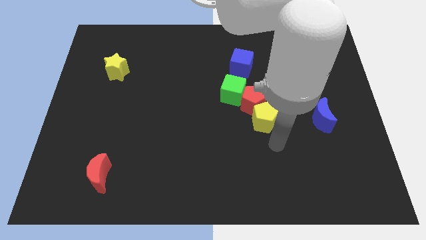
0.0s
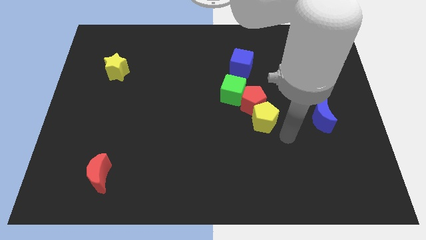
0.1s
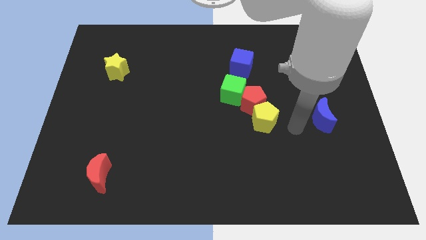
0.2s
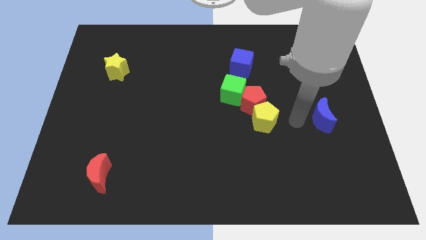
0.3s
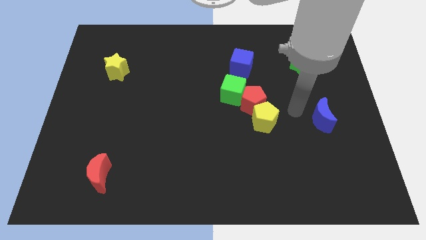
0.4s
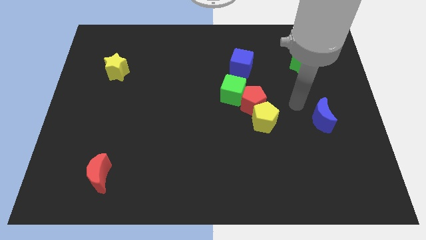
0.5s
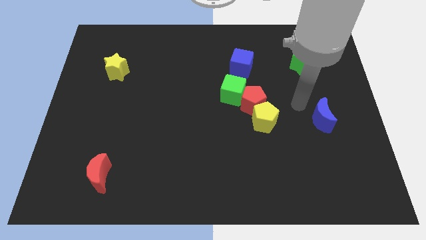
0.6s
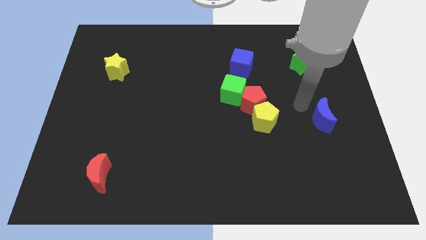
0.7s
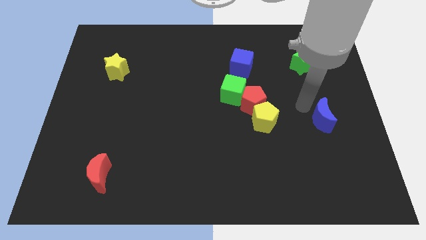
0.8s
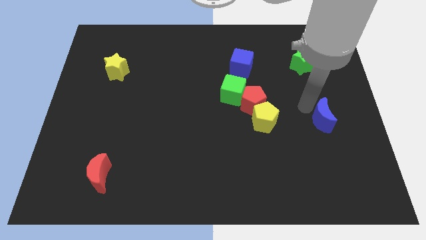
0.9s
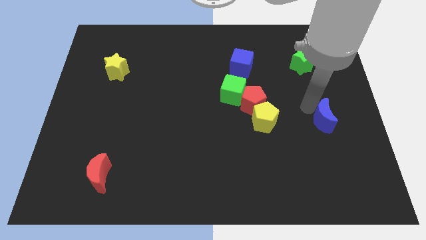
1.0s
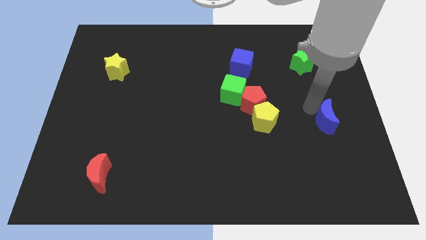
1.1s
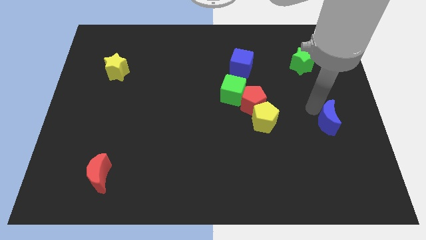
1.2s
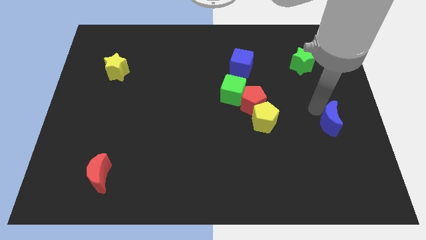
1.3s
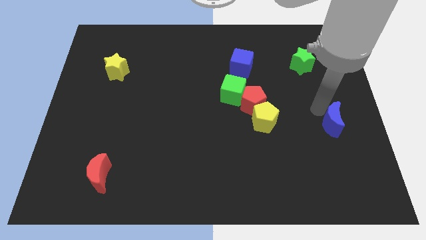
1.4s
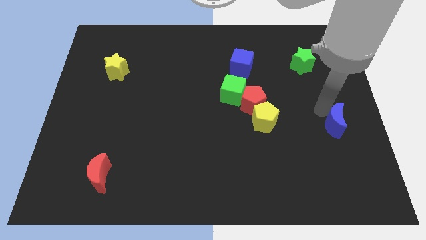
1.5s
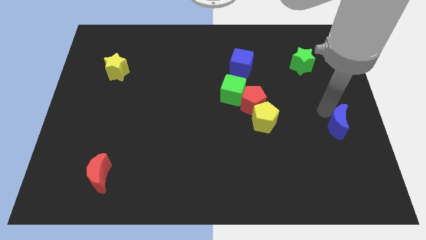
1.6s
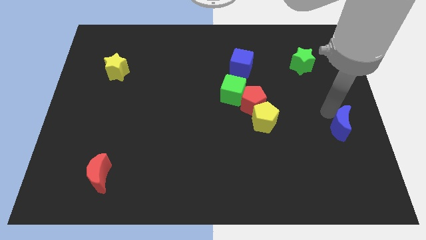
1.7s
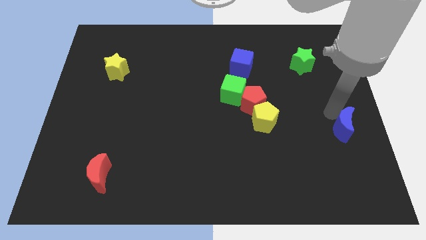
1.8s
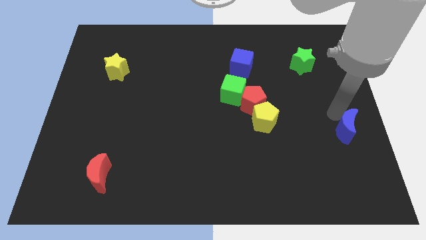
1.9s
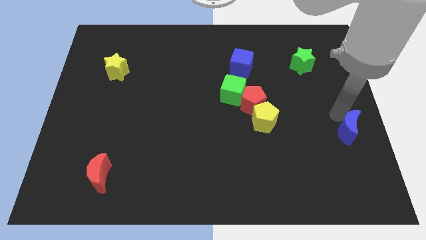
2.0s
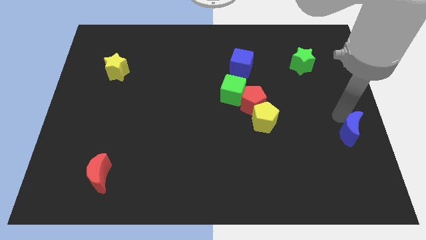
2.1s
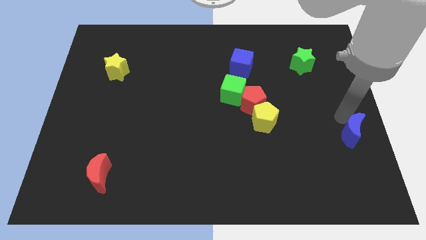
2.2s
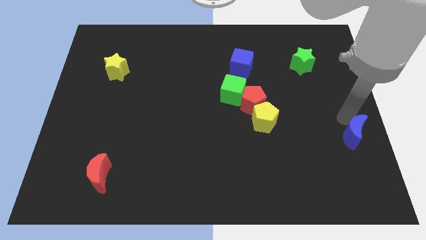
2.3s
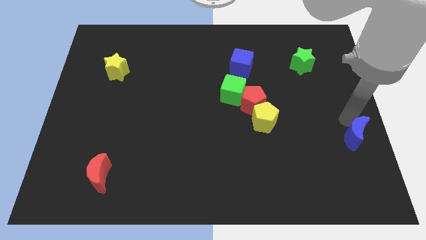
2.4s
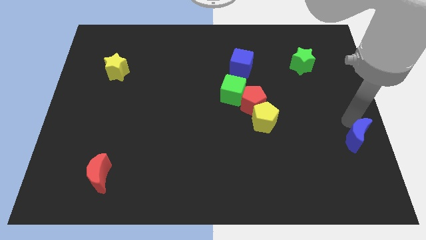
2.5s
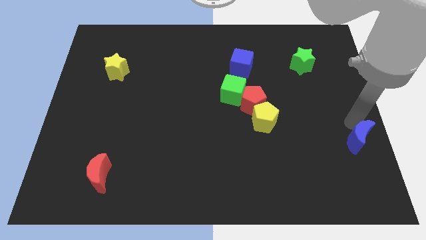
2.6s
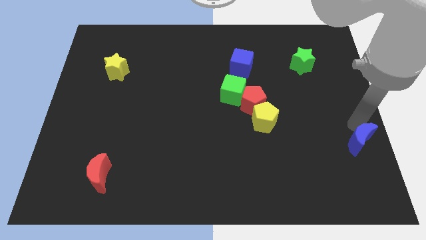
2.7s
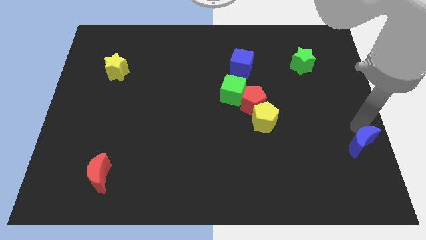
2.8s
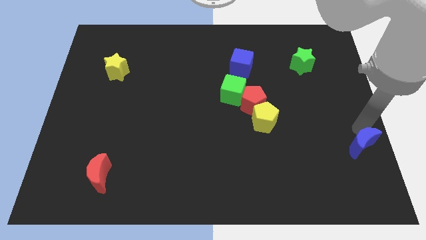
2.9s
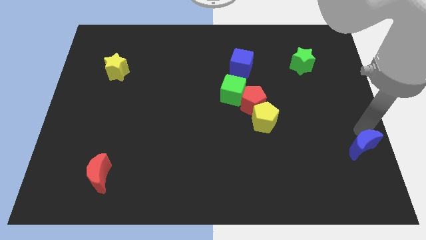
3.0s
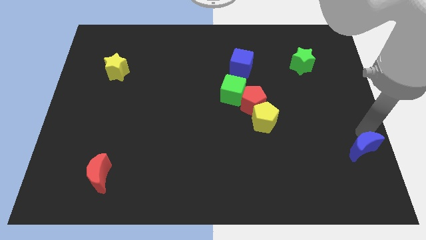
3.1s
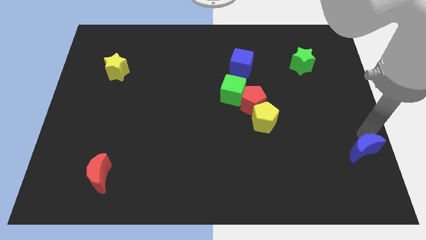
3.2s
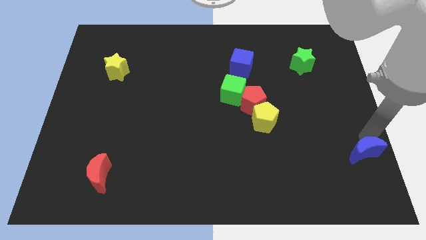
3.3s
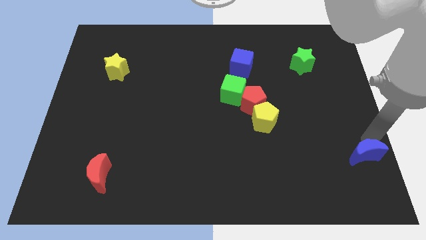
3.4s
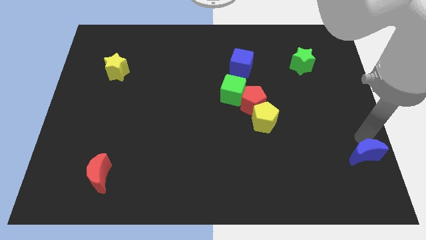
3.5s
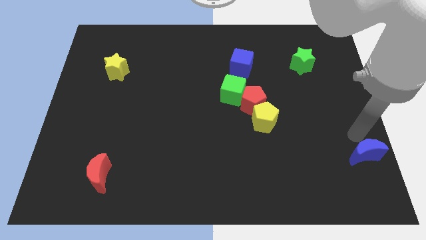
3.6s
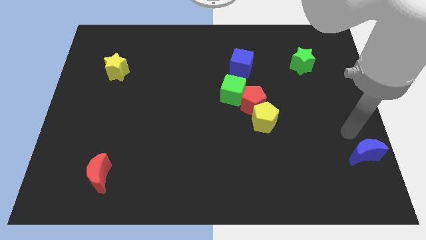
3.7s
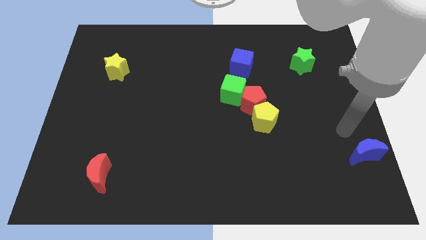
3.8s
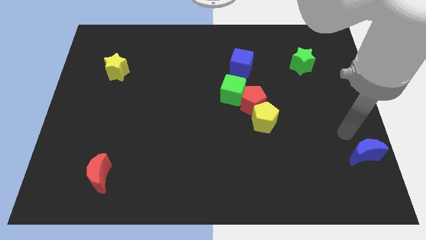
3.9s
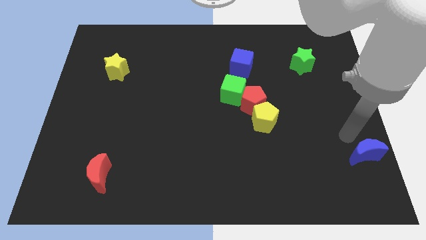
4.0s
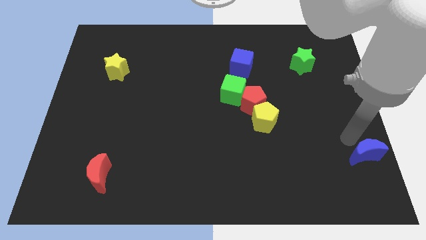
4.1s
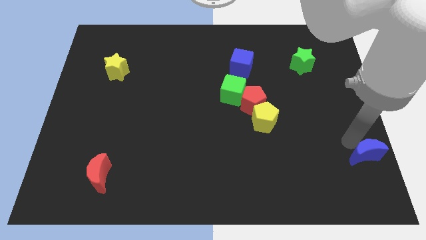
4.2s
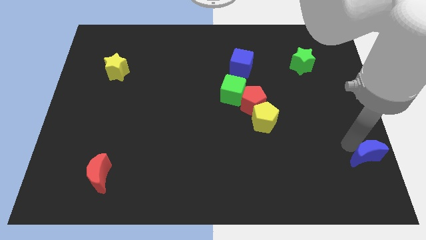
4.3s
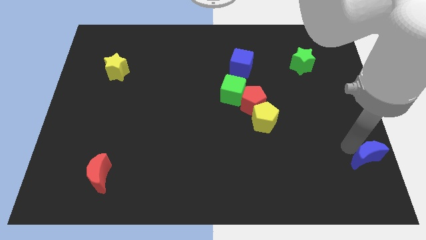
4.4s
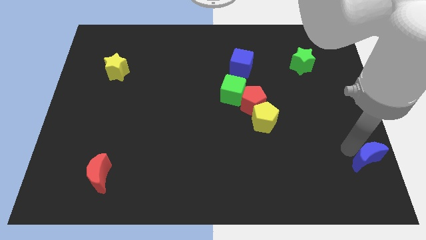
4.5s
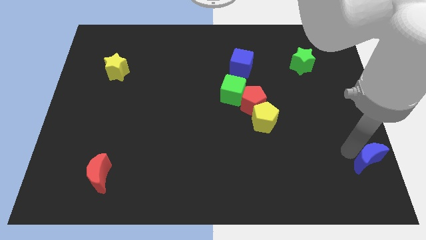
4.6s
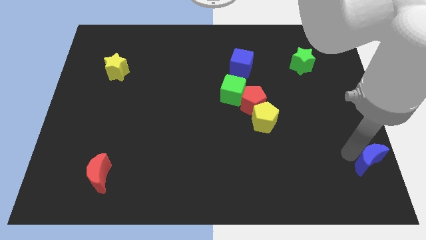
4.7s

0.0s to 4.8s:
put the blue moon to the bottom right of the board

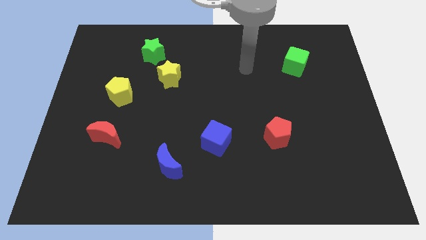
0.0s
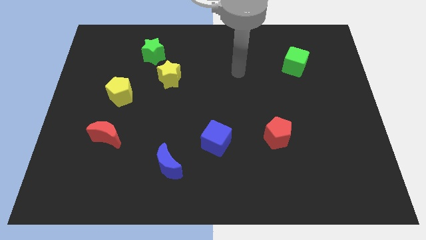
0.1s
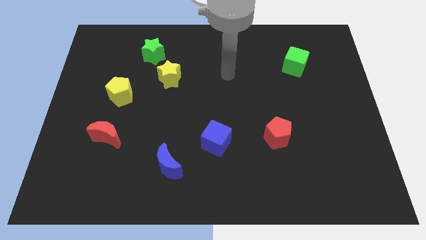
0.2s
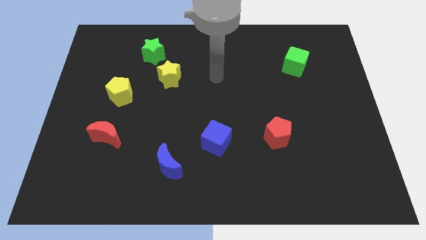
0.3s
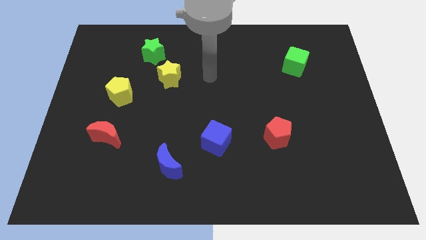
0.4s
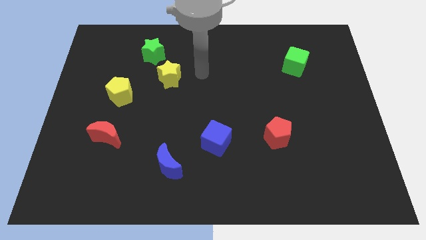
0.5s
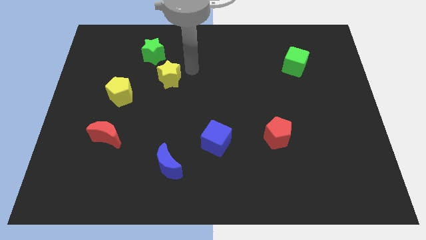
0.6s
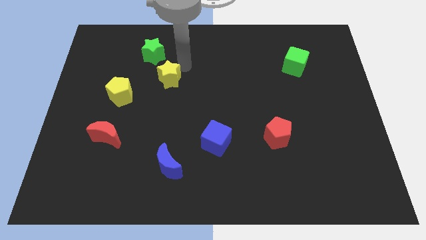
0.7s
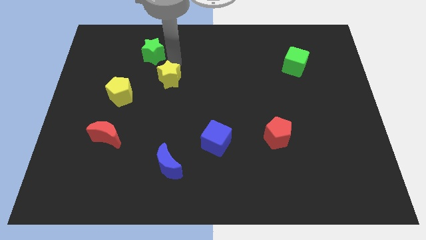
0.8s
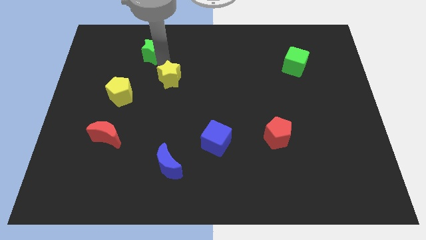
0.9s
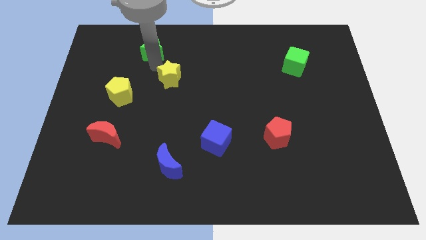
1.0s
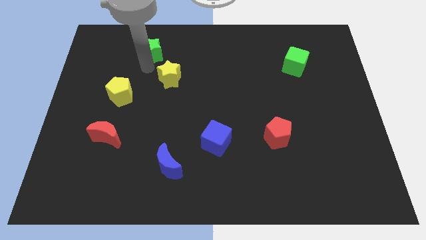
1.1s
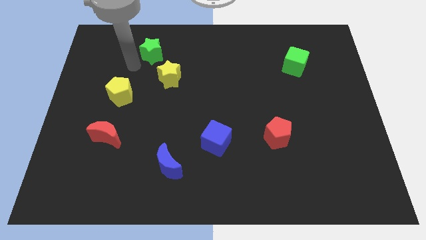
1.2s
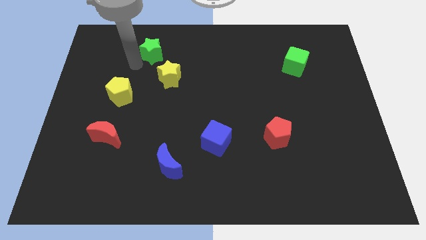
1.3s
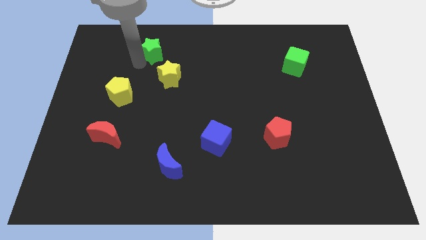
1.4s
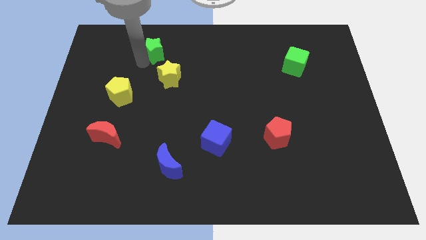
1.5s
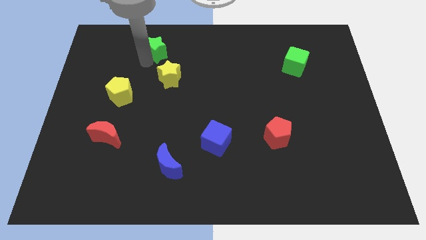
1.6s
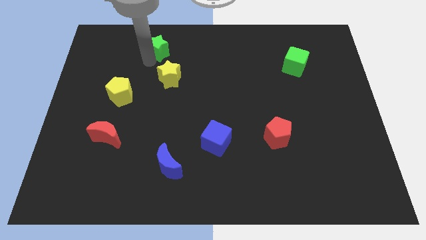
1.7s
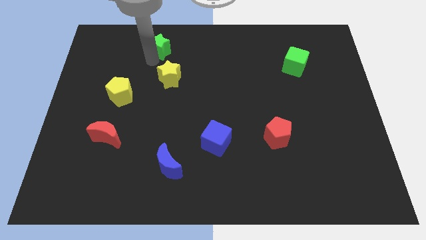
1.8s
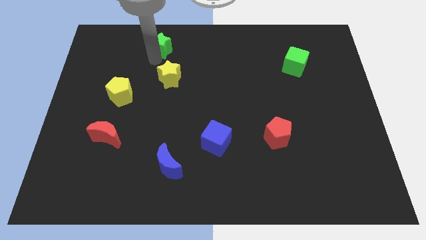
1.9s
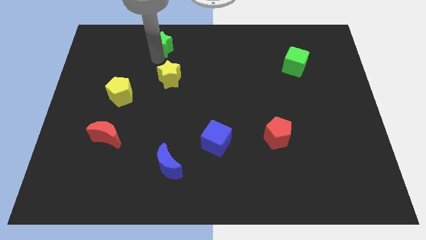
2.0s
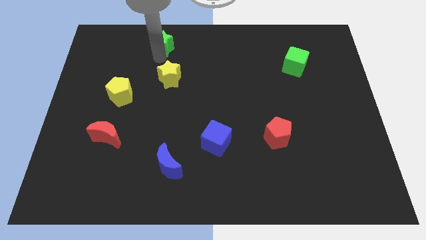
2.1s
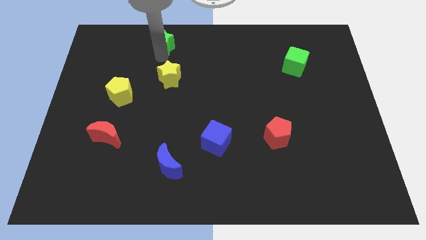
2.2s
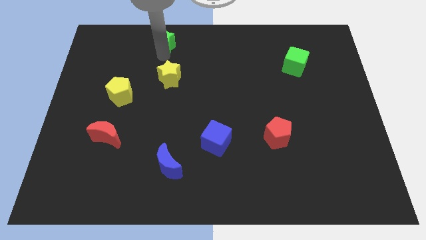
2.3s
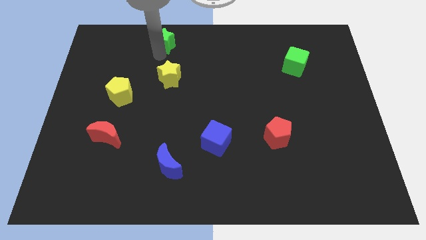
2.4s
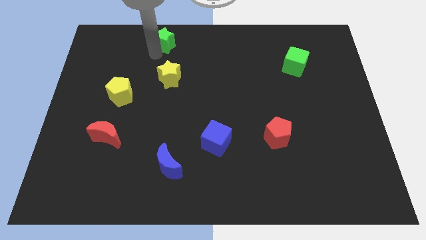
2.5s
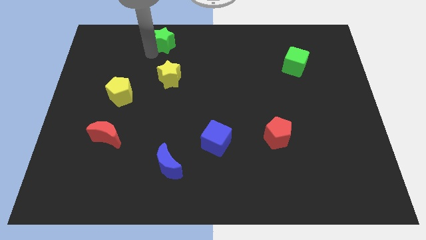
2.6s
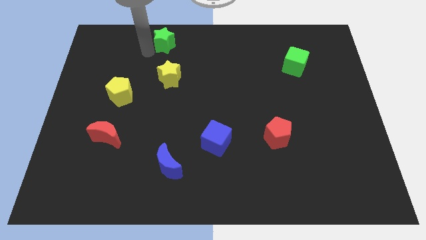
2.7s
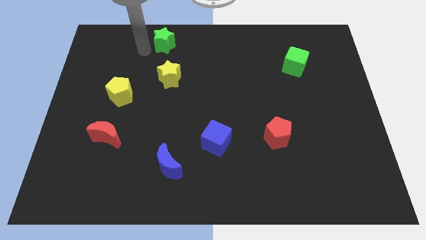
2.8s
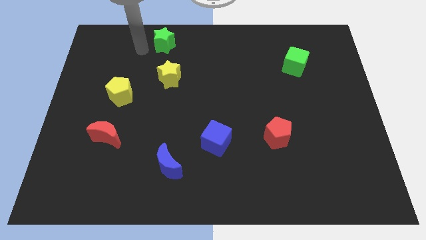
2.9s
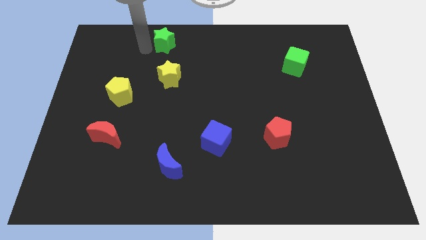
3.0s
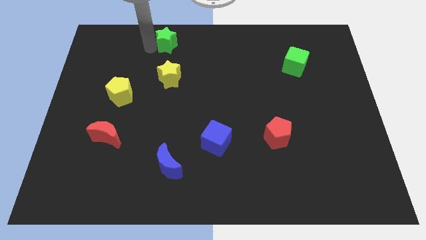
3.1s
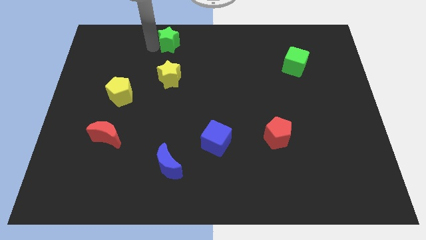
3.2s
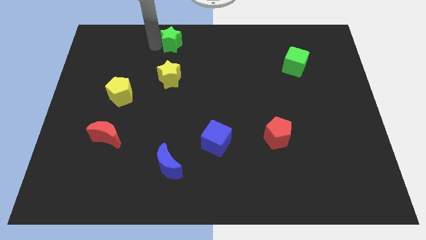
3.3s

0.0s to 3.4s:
slide the green star to the towards your base
